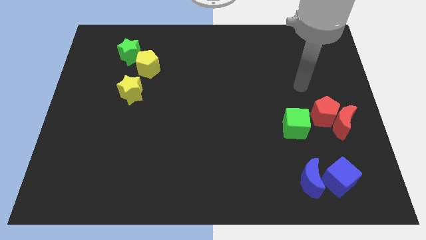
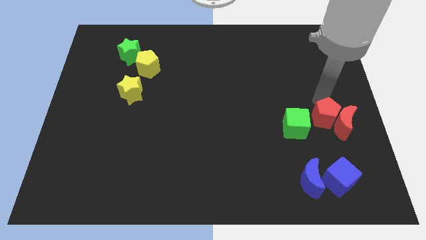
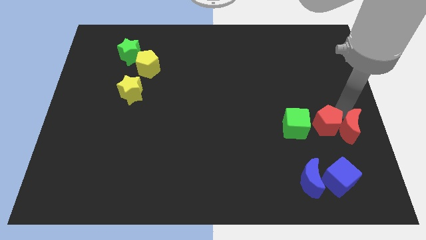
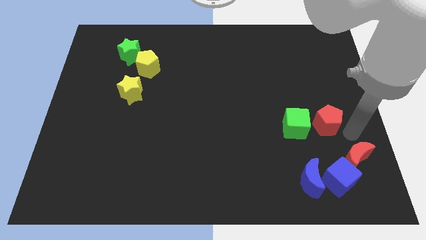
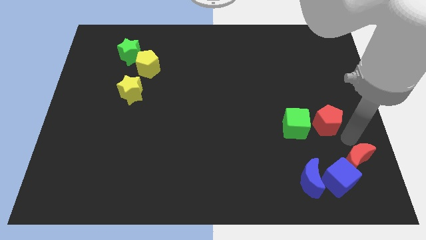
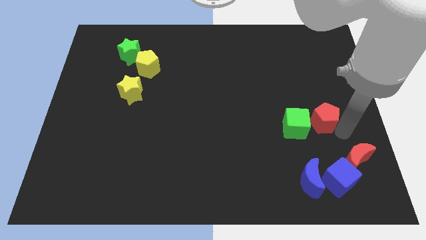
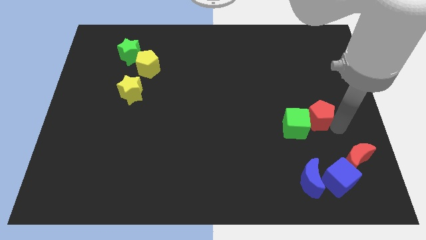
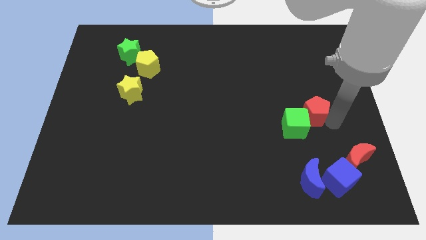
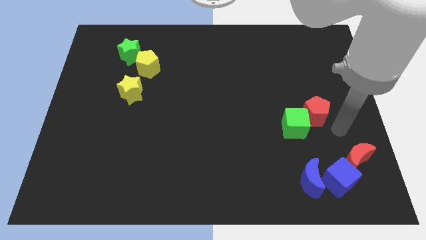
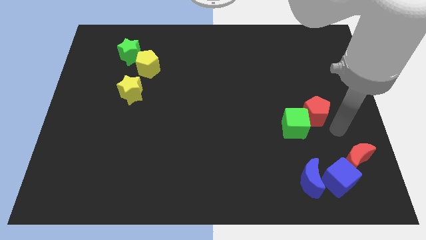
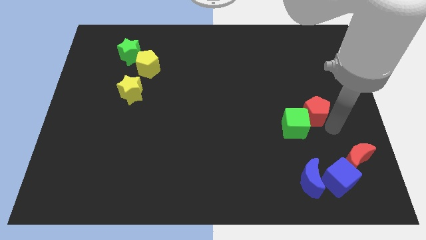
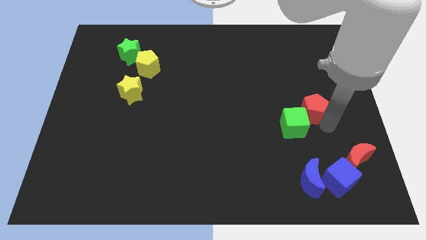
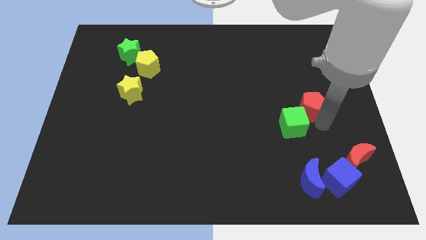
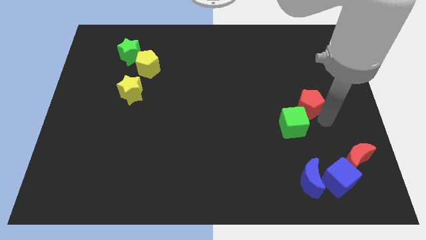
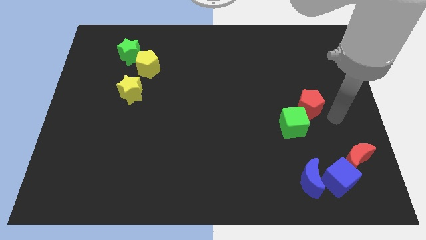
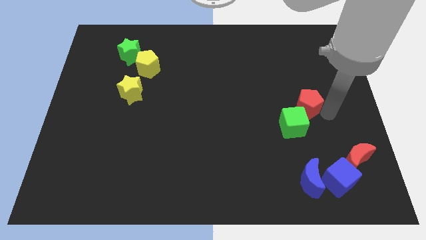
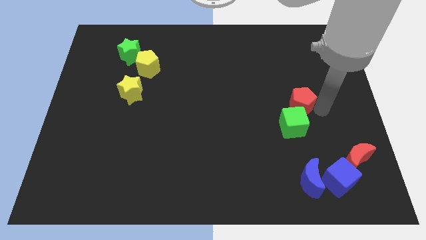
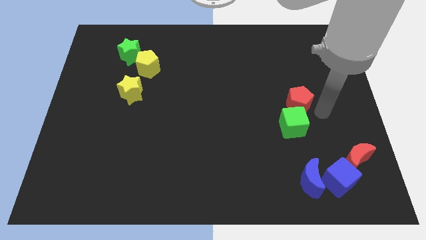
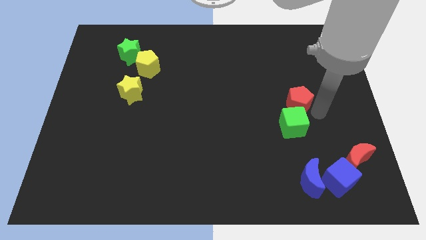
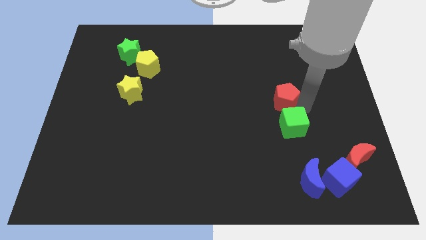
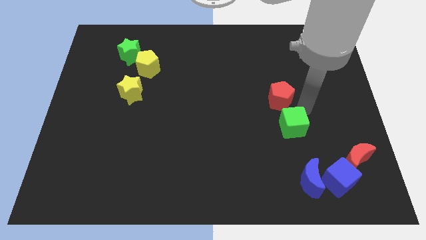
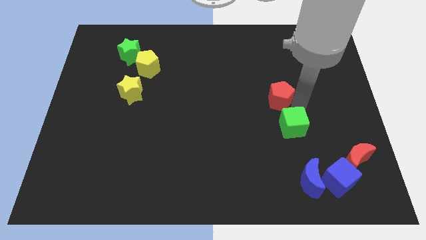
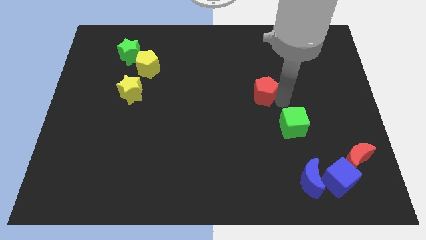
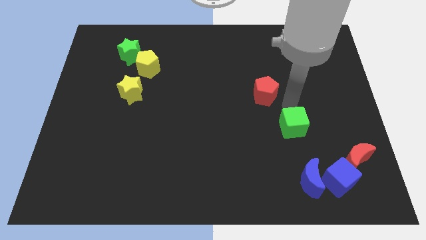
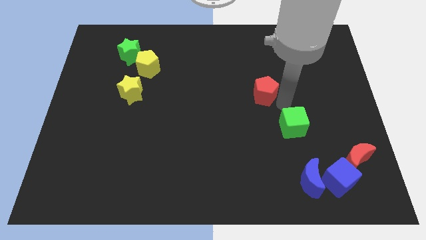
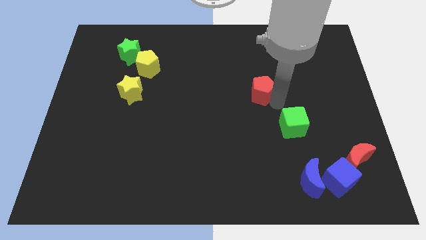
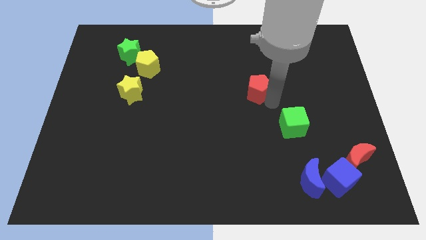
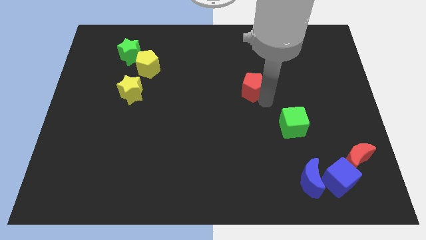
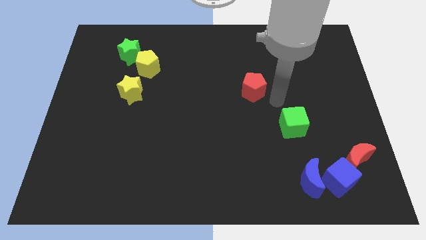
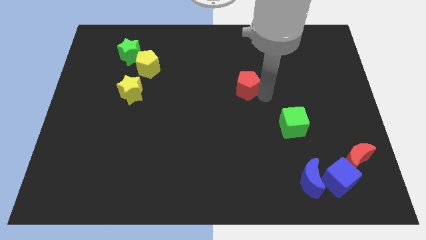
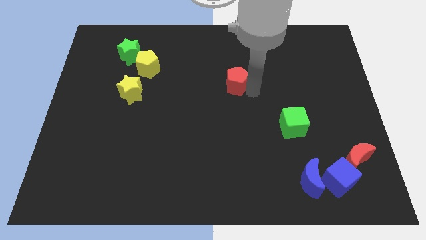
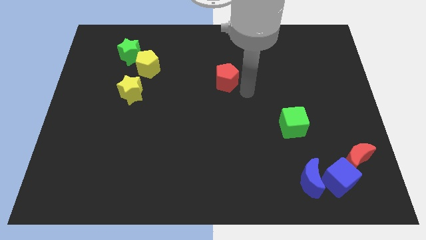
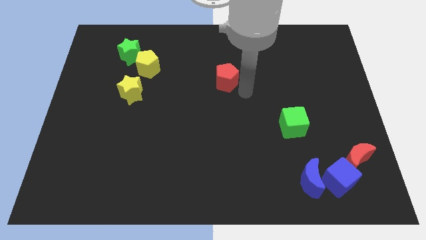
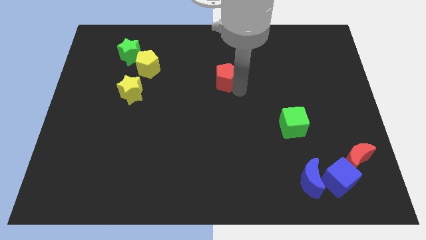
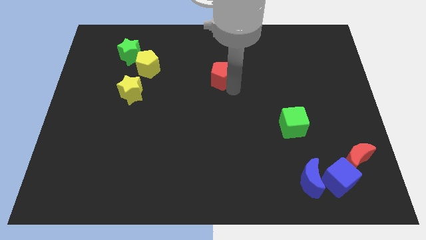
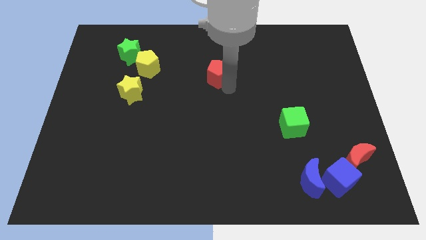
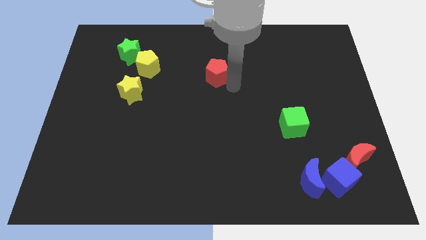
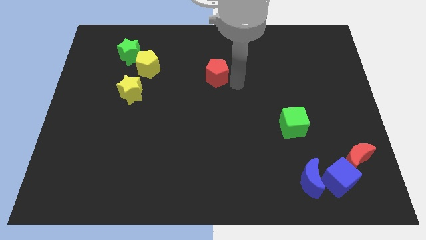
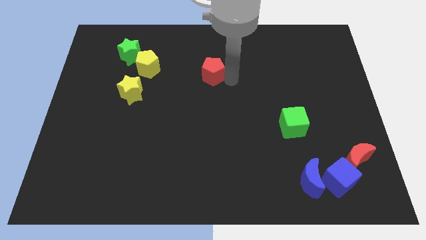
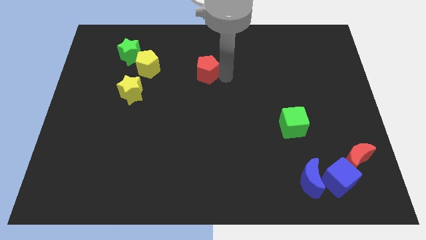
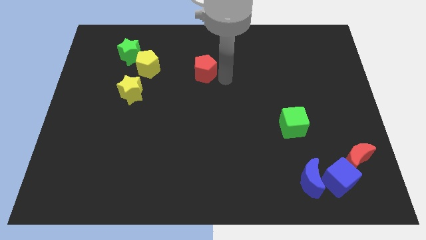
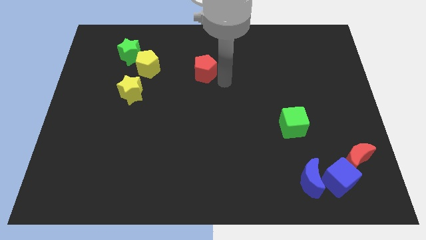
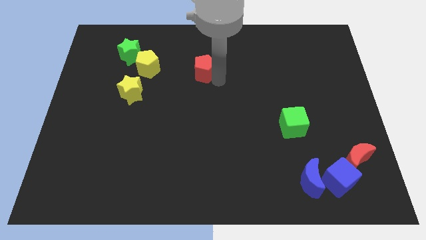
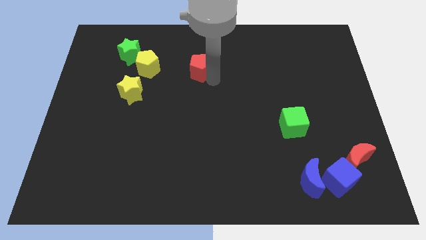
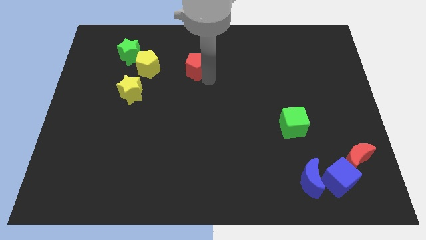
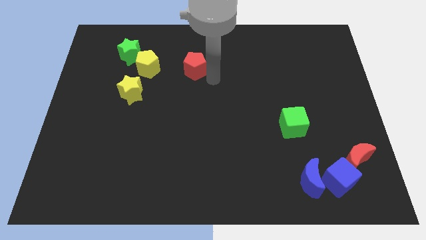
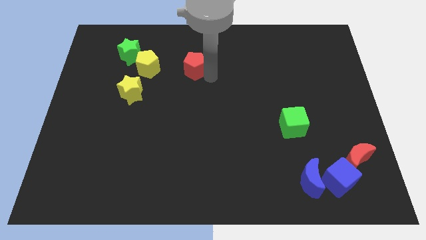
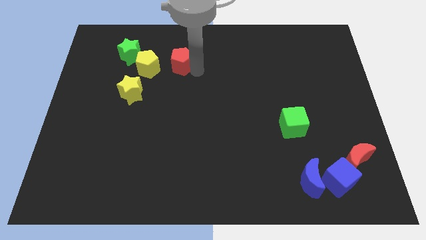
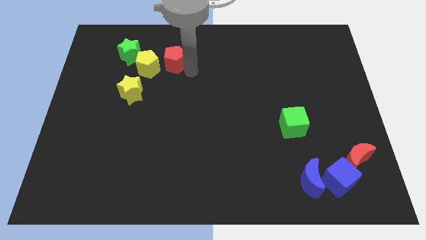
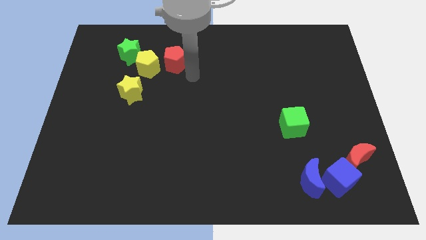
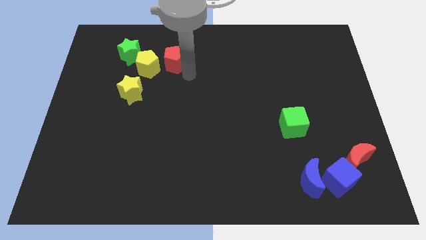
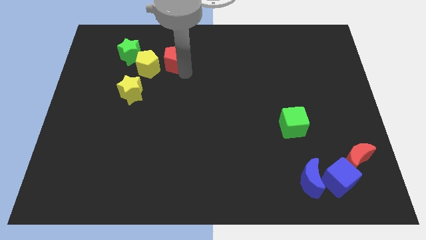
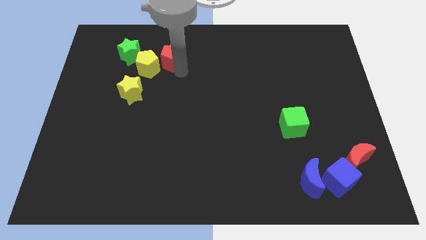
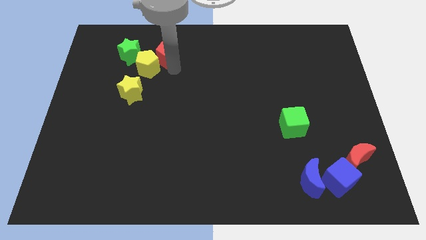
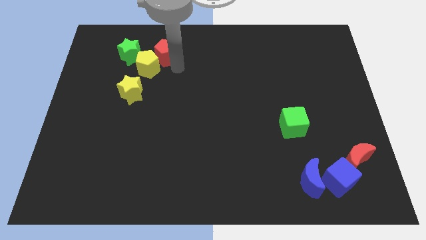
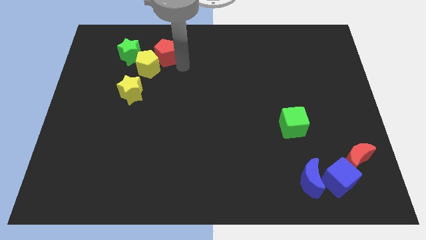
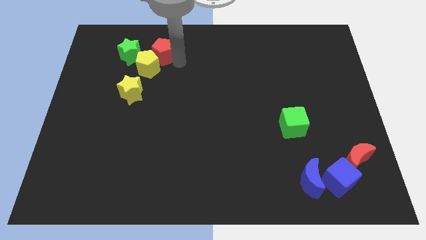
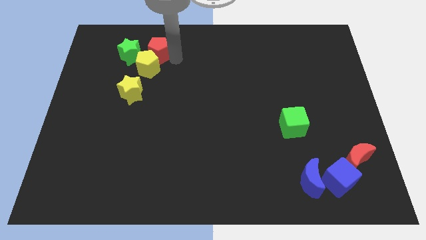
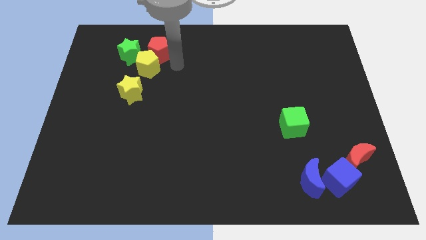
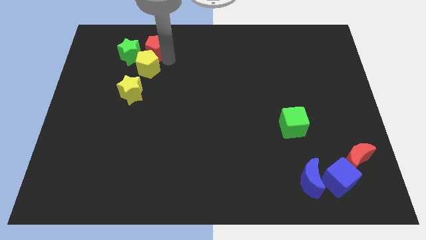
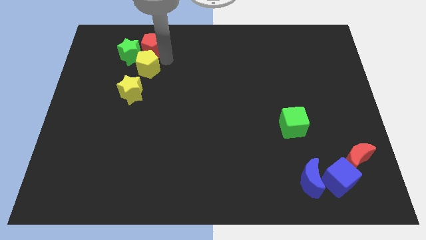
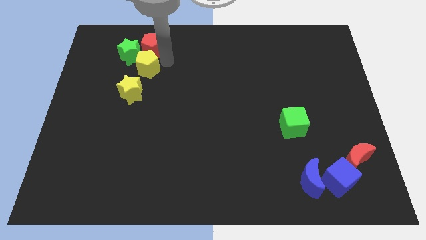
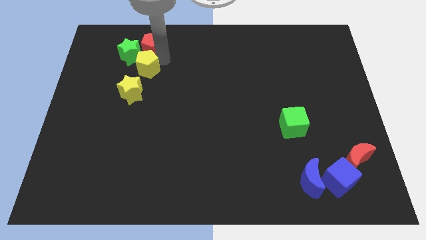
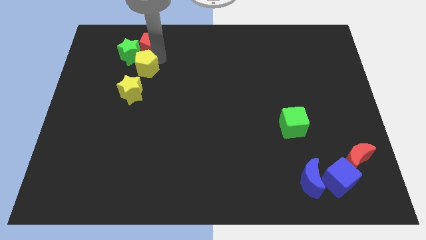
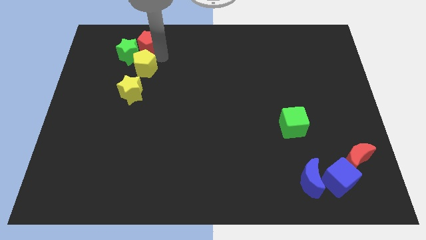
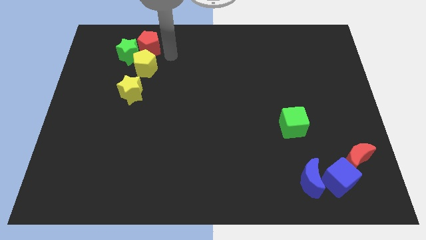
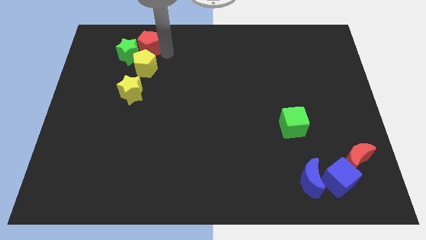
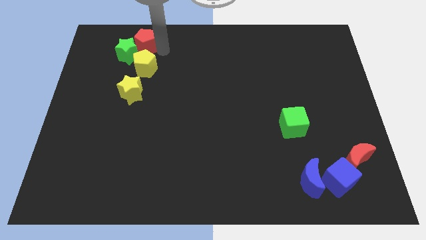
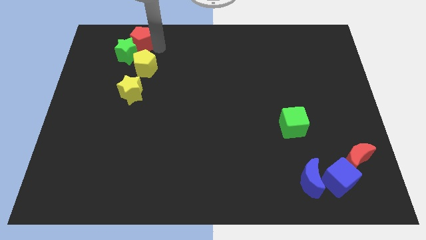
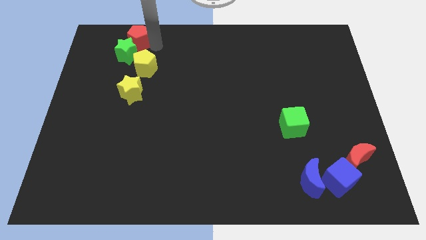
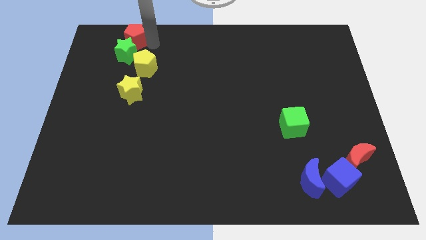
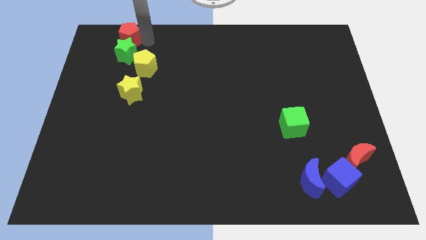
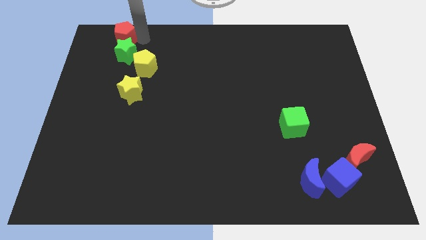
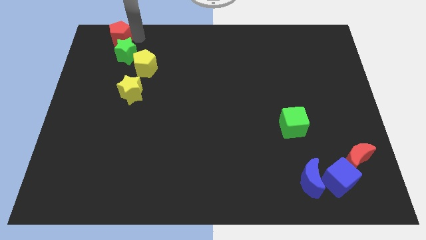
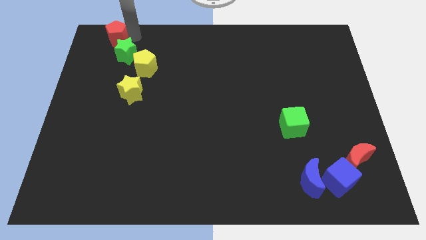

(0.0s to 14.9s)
push the red pentagon to the top left corner
